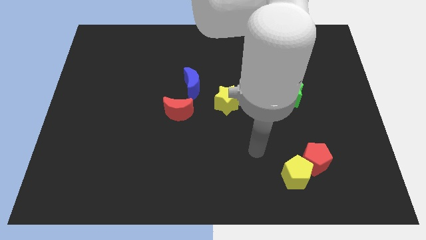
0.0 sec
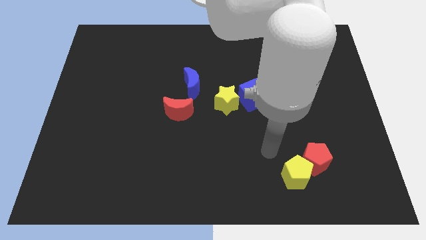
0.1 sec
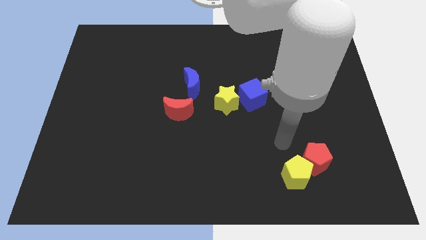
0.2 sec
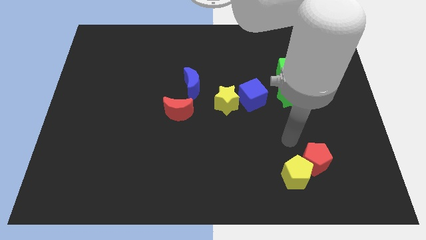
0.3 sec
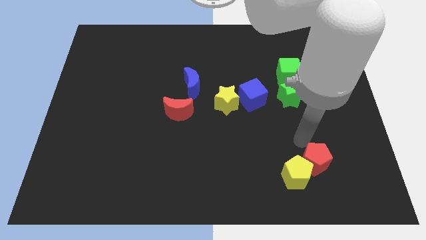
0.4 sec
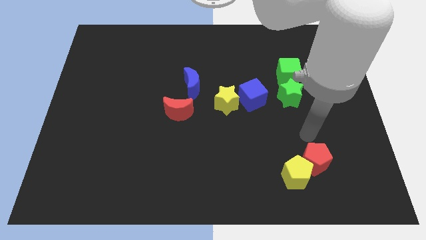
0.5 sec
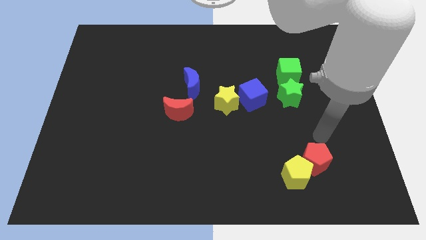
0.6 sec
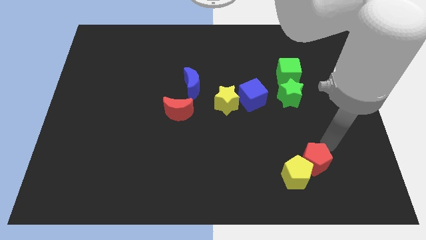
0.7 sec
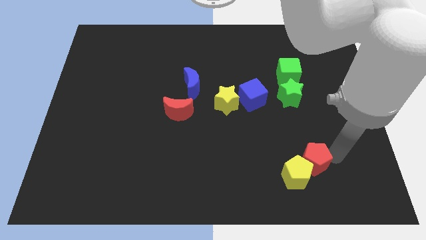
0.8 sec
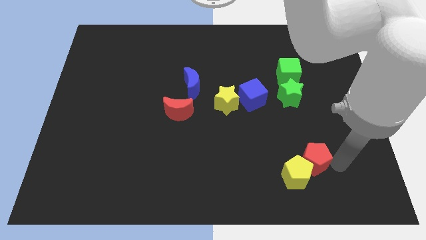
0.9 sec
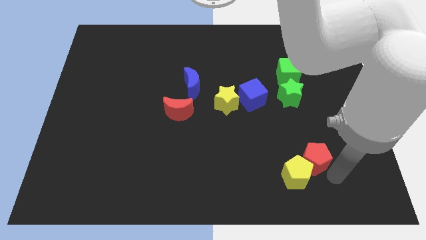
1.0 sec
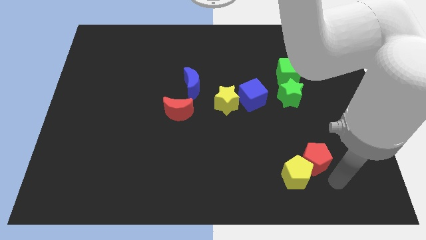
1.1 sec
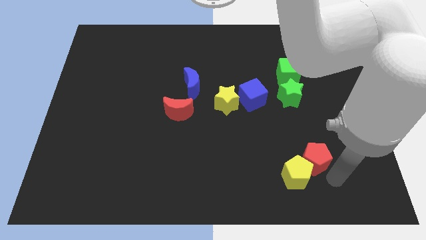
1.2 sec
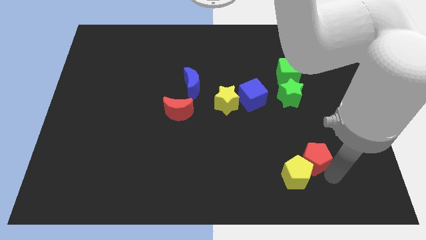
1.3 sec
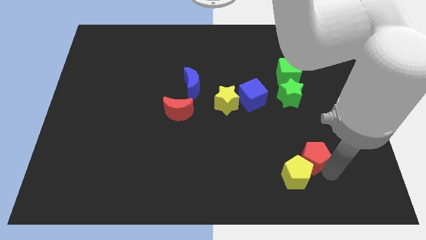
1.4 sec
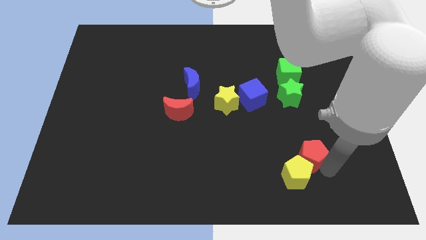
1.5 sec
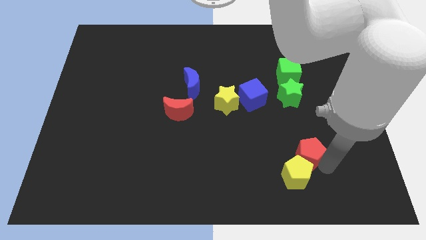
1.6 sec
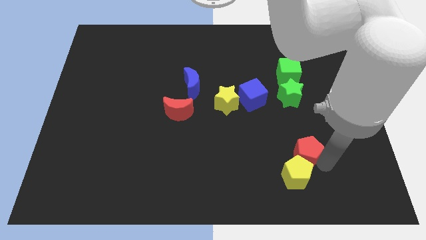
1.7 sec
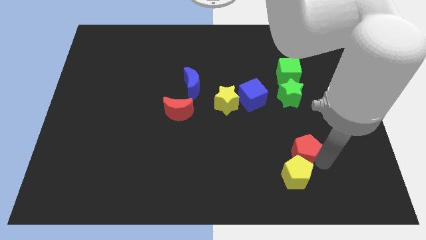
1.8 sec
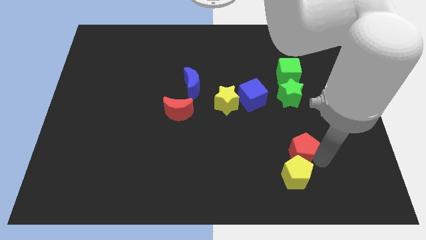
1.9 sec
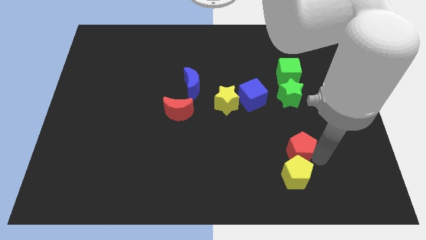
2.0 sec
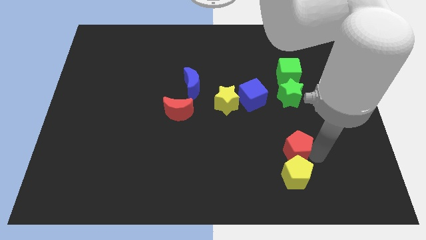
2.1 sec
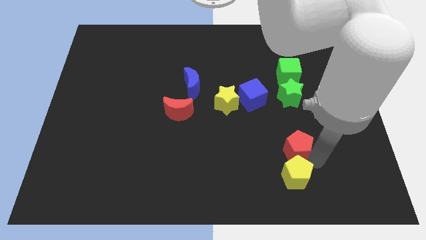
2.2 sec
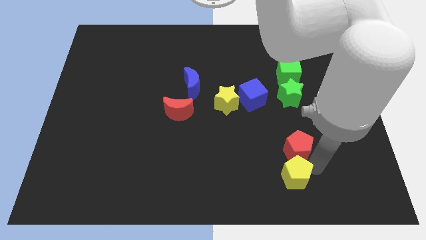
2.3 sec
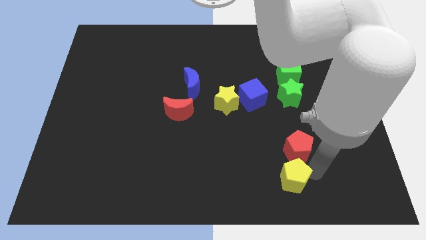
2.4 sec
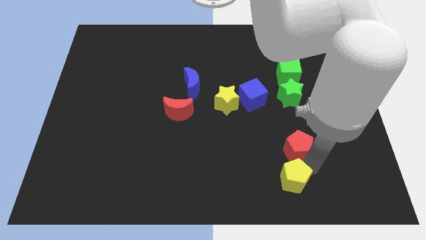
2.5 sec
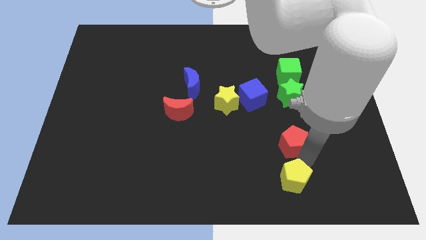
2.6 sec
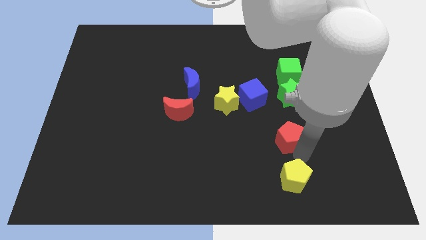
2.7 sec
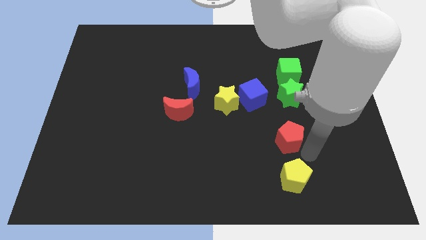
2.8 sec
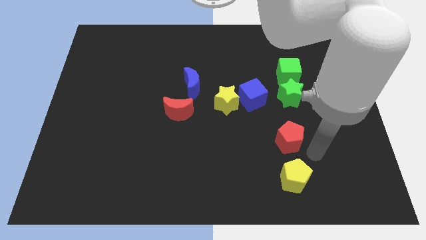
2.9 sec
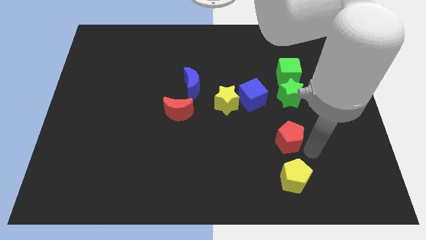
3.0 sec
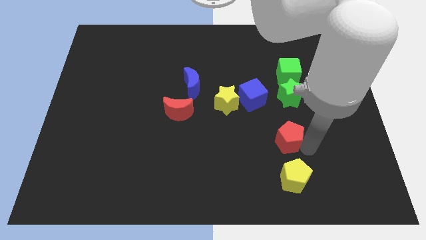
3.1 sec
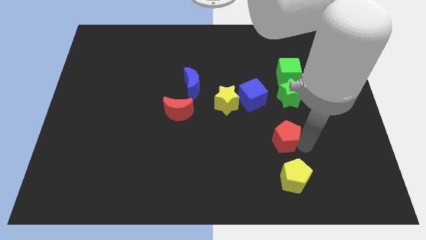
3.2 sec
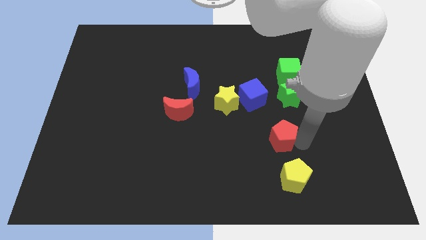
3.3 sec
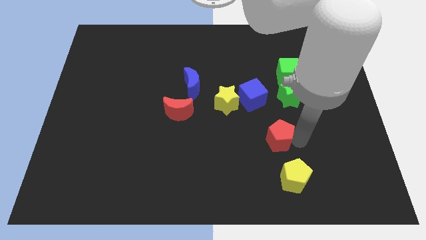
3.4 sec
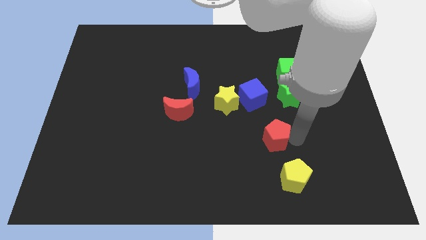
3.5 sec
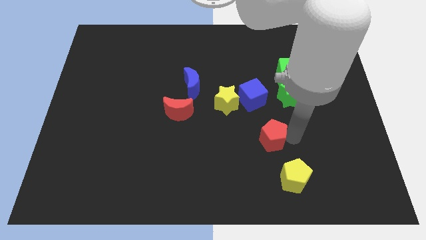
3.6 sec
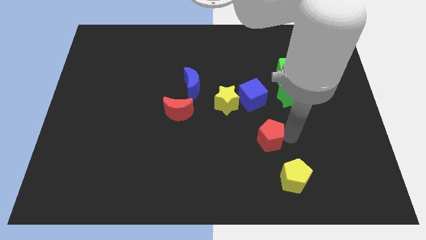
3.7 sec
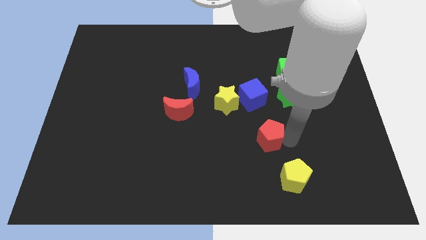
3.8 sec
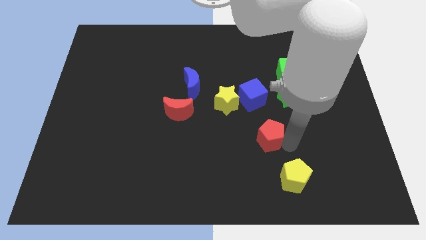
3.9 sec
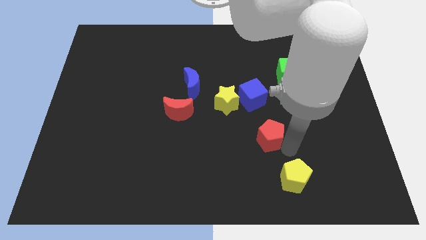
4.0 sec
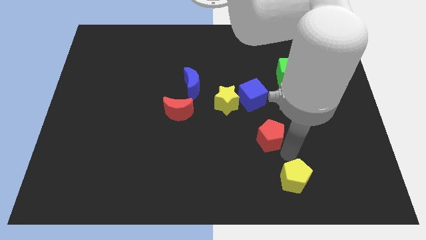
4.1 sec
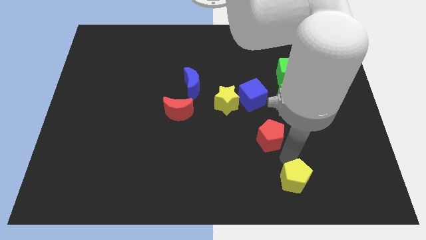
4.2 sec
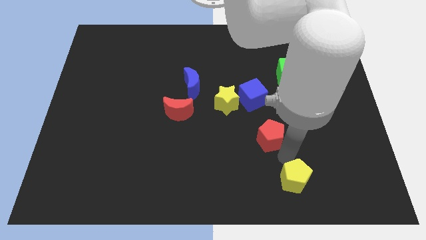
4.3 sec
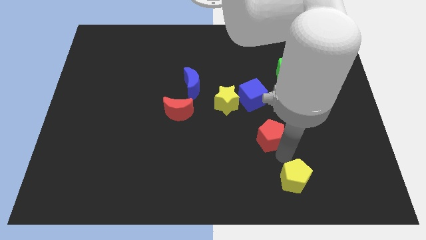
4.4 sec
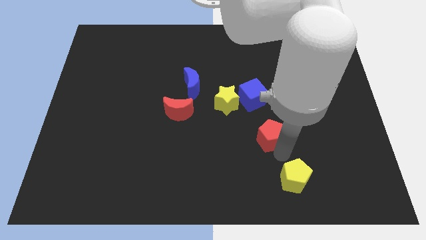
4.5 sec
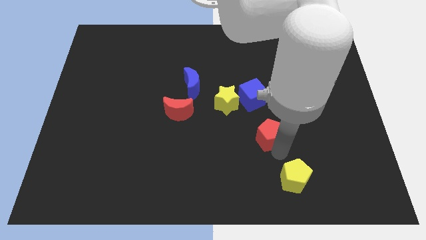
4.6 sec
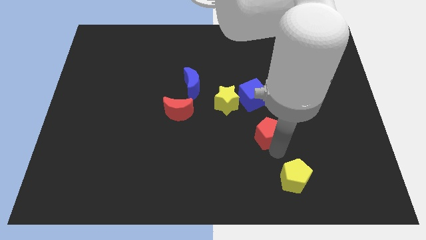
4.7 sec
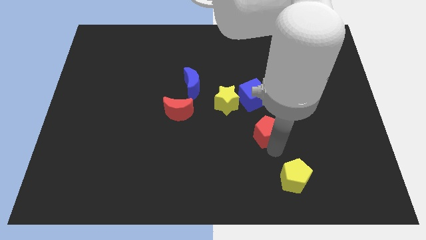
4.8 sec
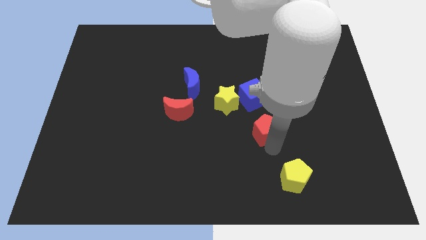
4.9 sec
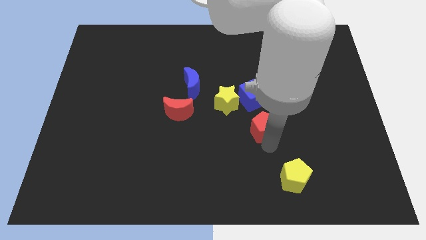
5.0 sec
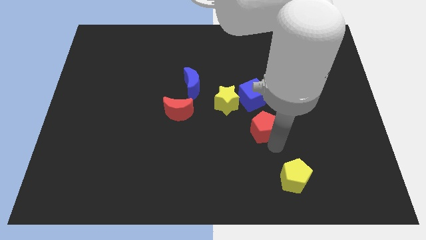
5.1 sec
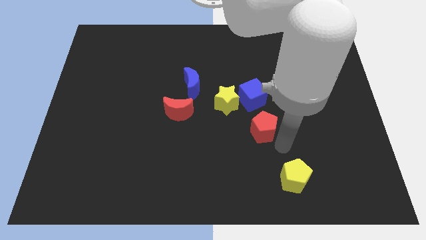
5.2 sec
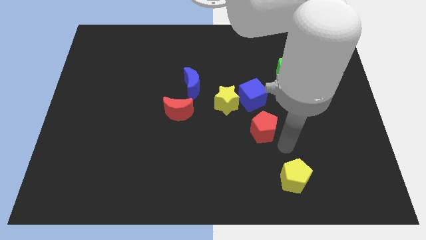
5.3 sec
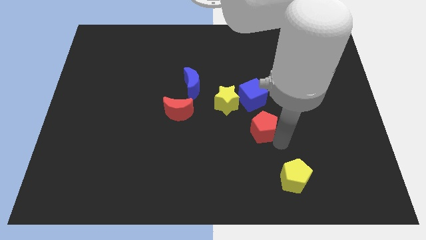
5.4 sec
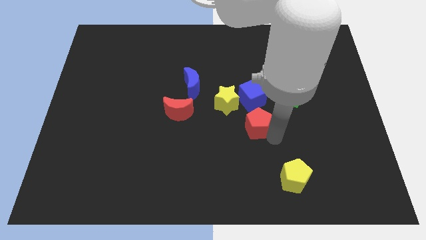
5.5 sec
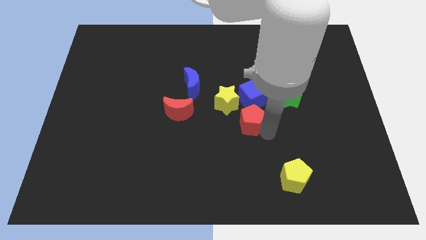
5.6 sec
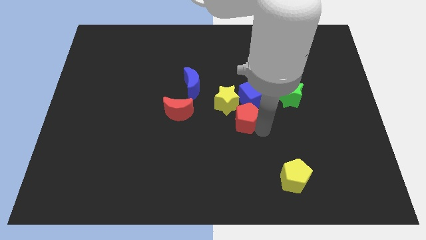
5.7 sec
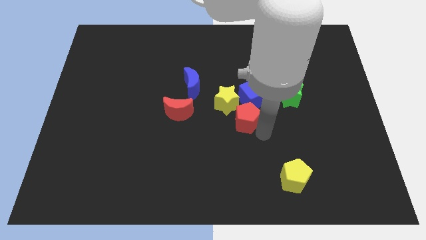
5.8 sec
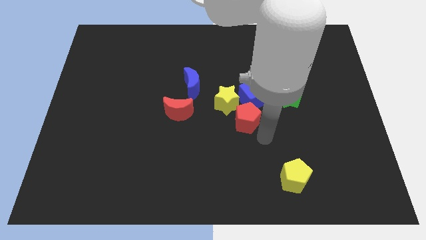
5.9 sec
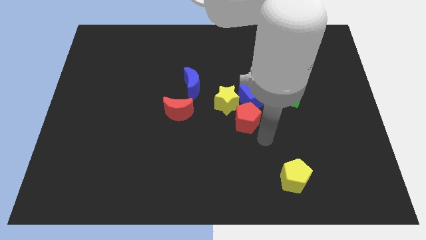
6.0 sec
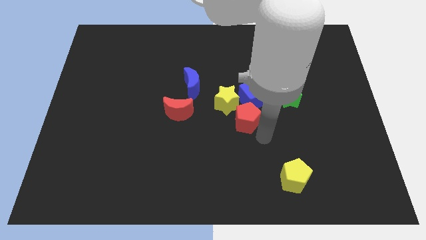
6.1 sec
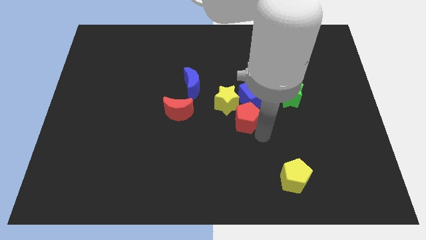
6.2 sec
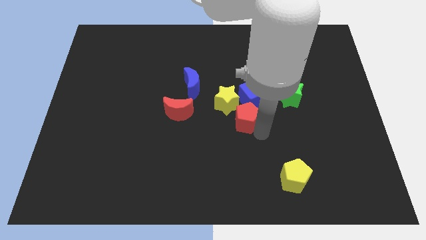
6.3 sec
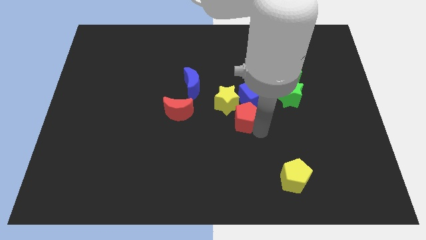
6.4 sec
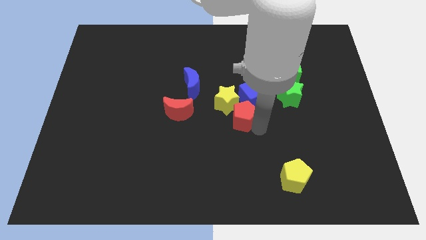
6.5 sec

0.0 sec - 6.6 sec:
slide the red pentagon to the yellow star

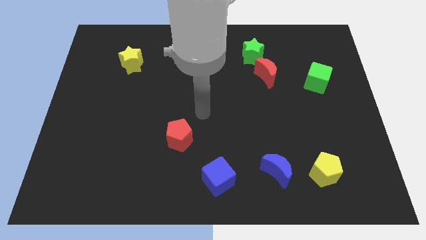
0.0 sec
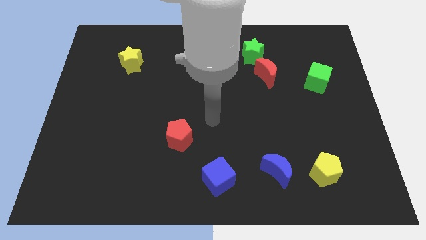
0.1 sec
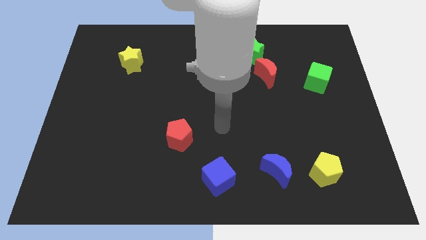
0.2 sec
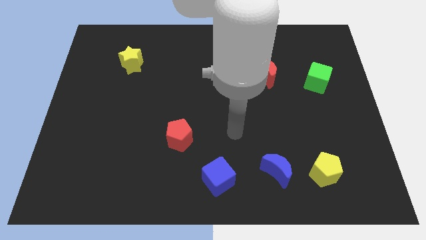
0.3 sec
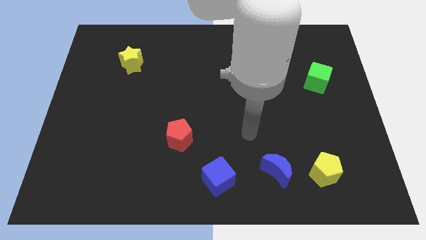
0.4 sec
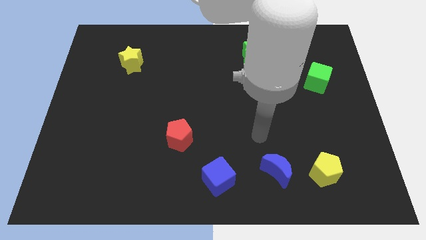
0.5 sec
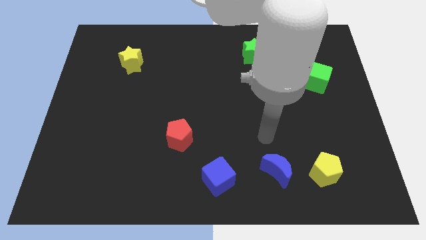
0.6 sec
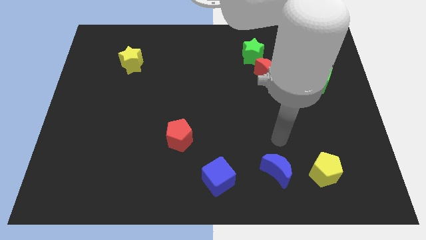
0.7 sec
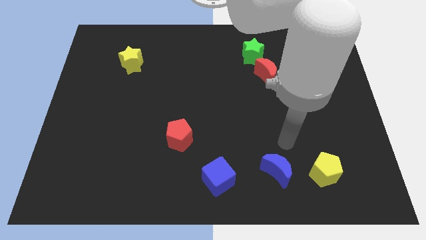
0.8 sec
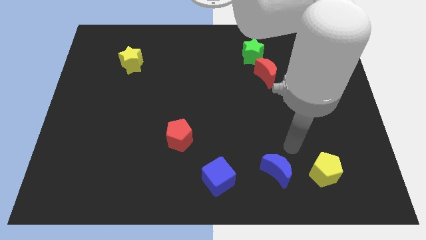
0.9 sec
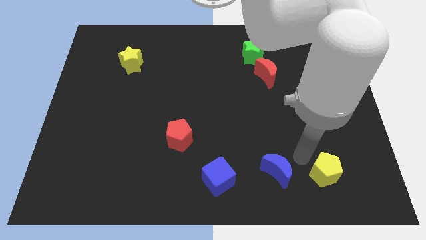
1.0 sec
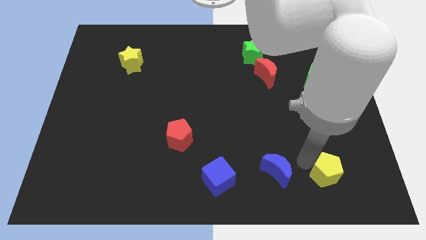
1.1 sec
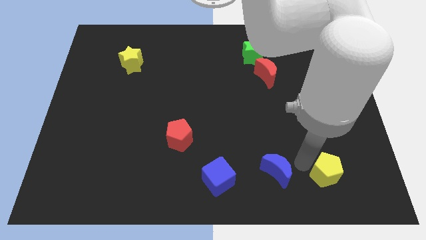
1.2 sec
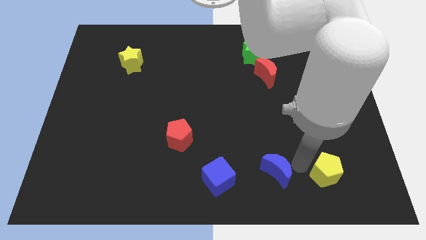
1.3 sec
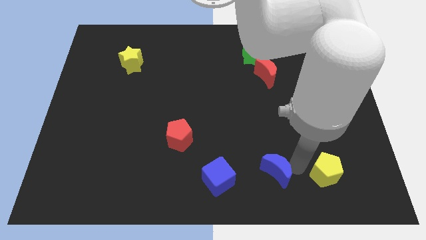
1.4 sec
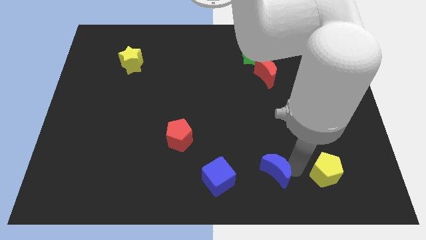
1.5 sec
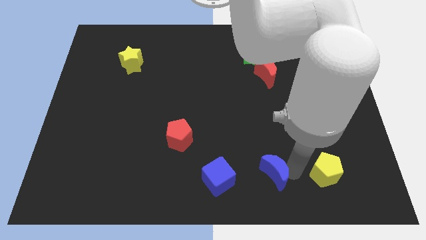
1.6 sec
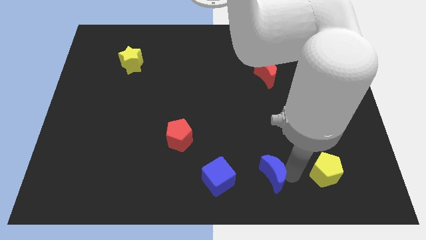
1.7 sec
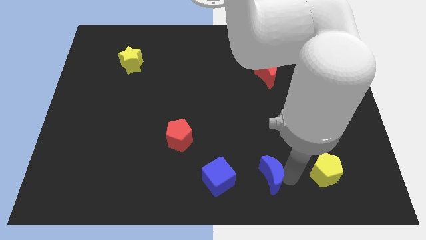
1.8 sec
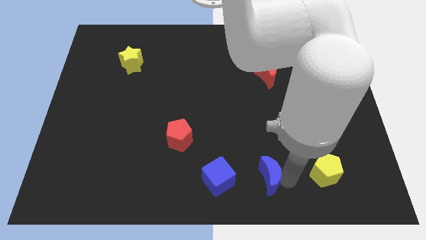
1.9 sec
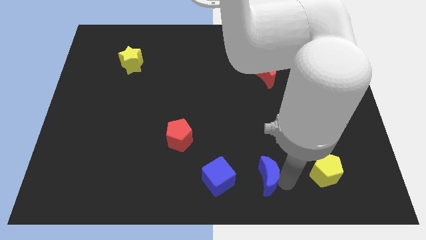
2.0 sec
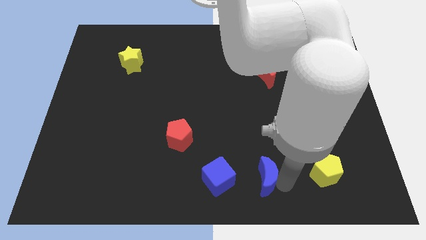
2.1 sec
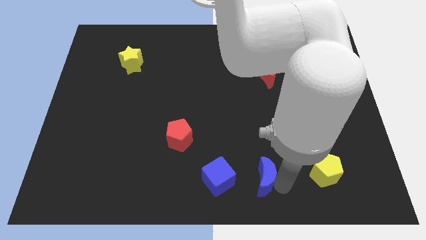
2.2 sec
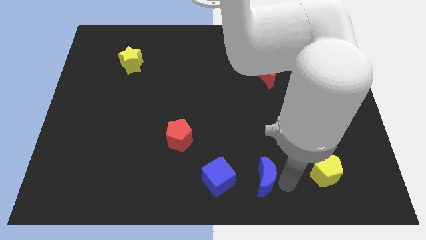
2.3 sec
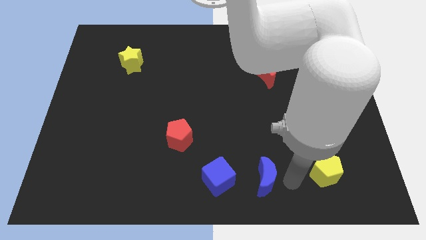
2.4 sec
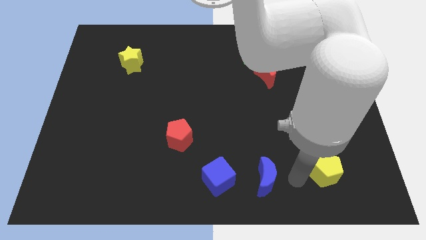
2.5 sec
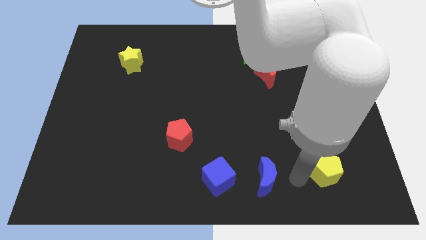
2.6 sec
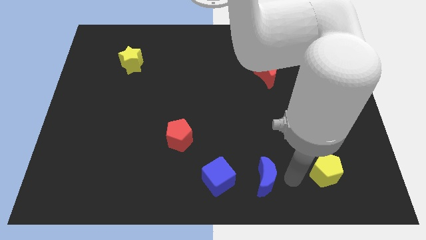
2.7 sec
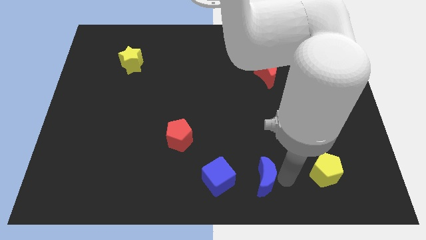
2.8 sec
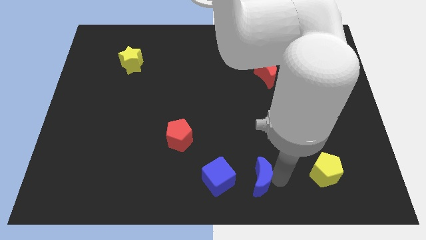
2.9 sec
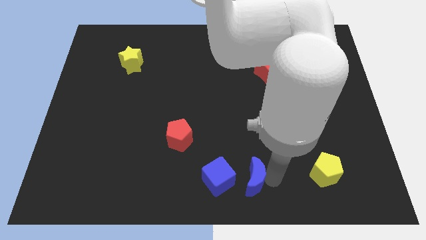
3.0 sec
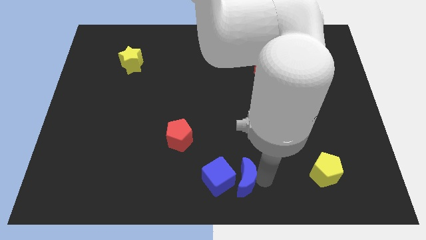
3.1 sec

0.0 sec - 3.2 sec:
slide the blue moon next to the blue cube
